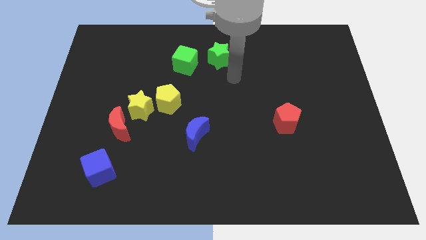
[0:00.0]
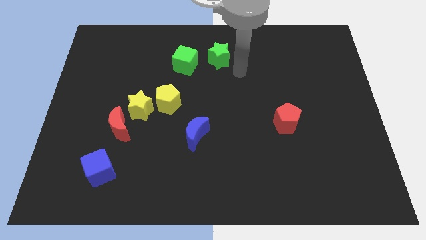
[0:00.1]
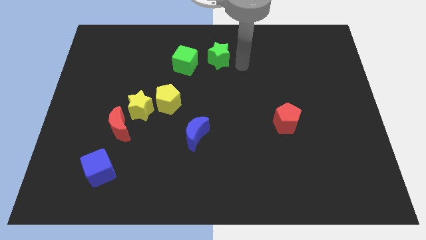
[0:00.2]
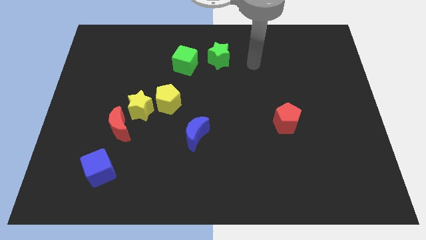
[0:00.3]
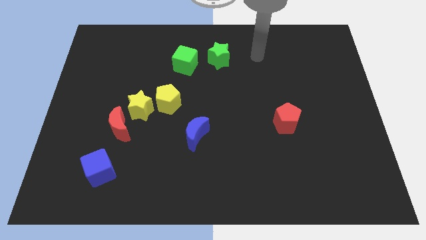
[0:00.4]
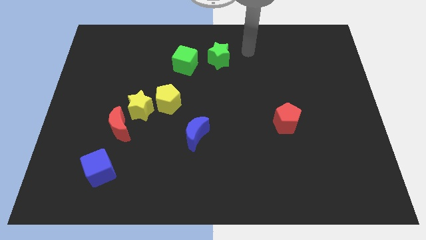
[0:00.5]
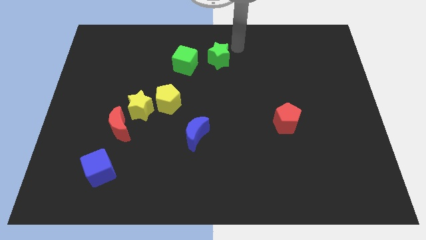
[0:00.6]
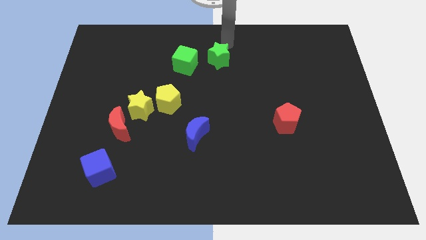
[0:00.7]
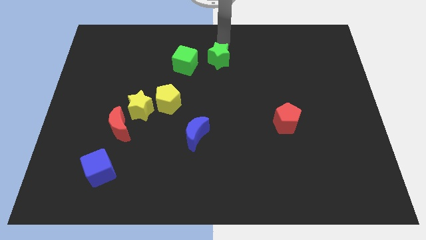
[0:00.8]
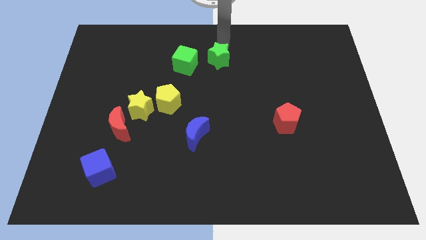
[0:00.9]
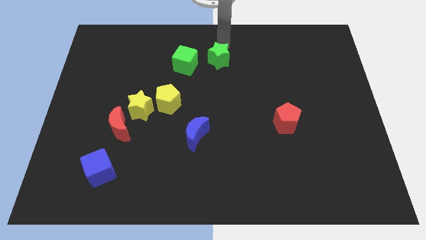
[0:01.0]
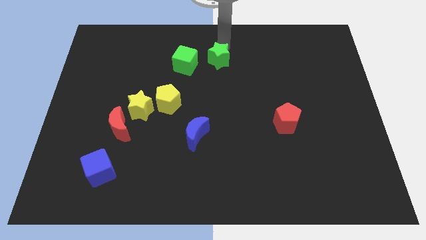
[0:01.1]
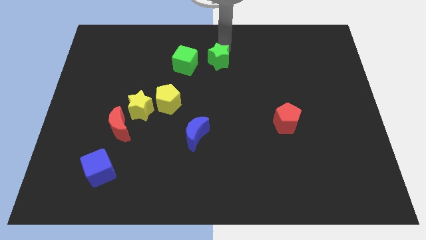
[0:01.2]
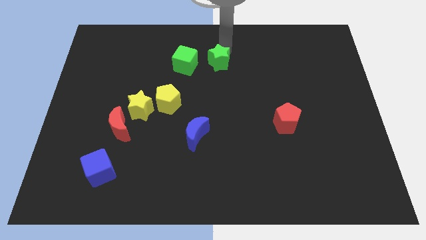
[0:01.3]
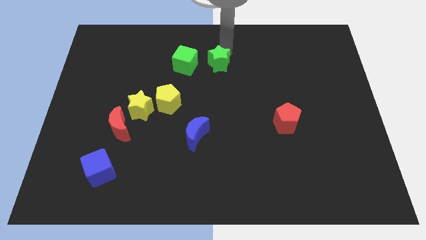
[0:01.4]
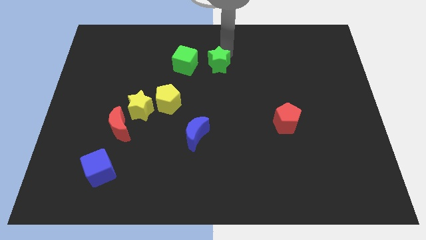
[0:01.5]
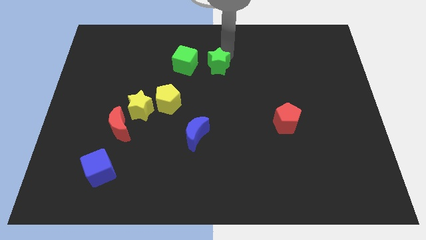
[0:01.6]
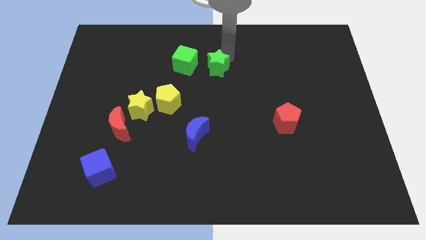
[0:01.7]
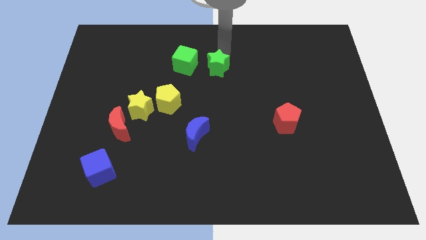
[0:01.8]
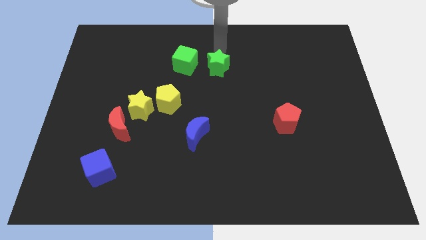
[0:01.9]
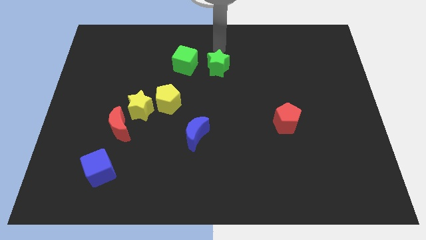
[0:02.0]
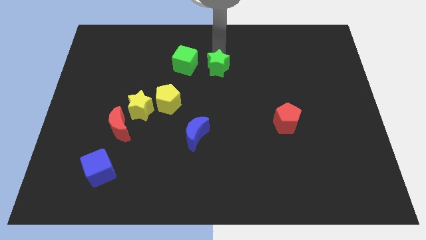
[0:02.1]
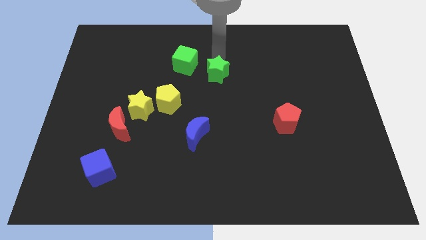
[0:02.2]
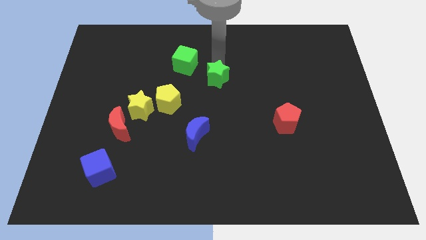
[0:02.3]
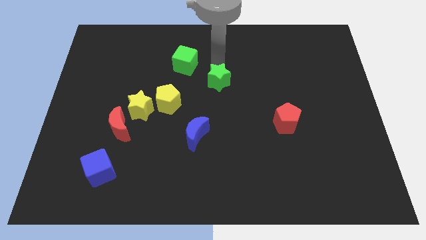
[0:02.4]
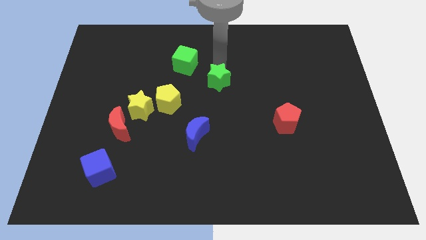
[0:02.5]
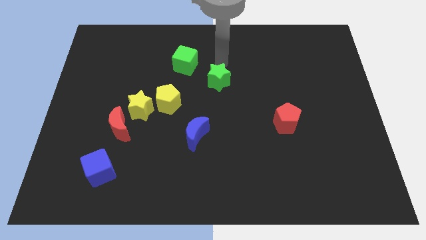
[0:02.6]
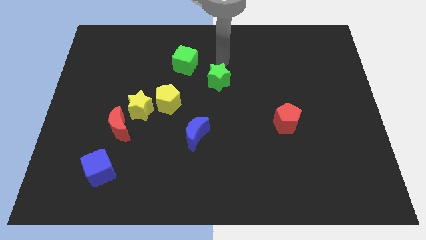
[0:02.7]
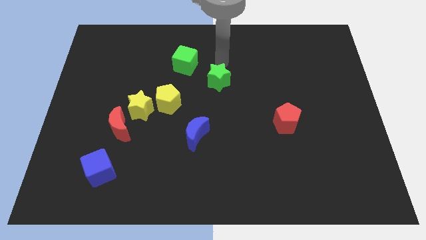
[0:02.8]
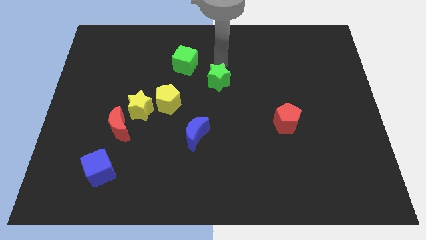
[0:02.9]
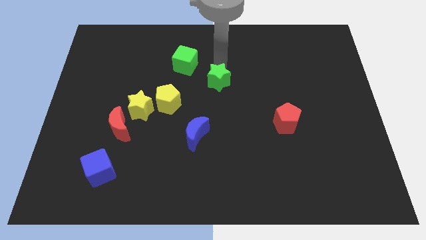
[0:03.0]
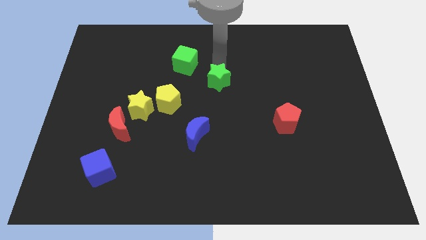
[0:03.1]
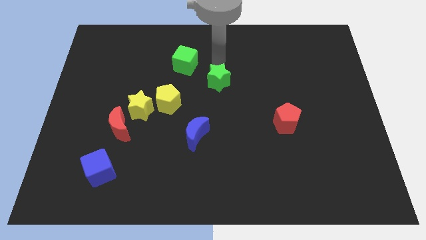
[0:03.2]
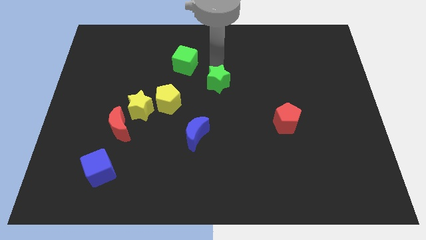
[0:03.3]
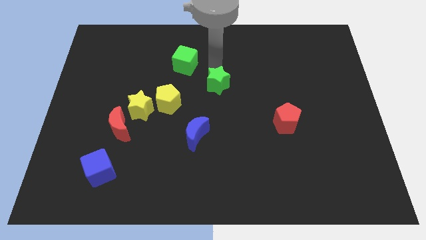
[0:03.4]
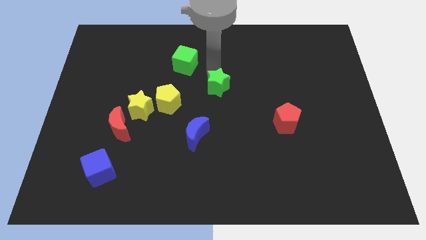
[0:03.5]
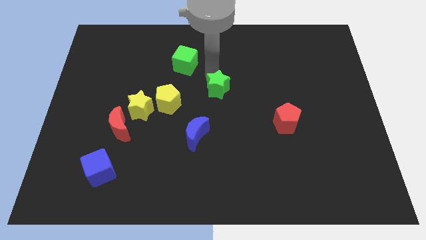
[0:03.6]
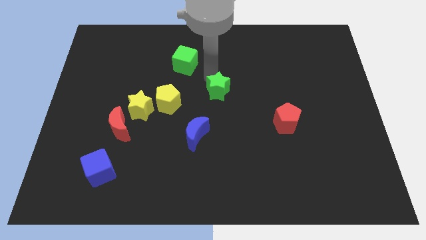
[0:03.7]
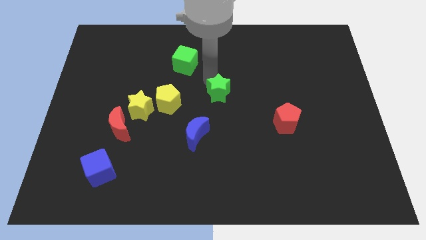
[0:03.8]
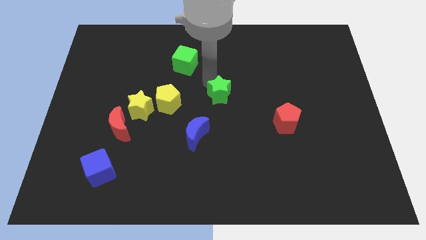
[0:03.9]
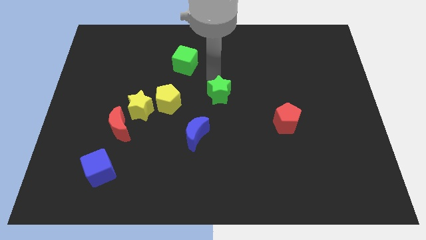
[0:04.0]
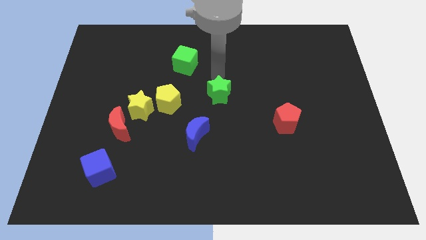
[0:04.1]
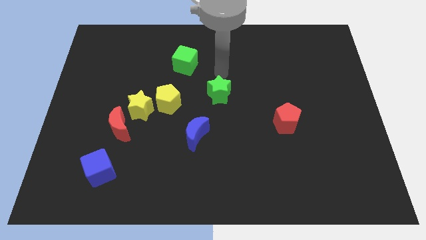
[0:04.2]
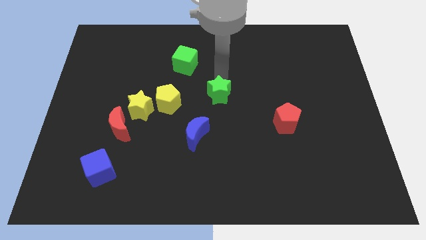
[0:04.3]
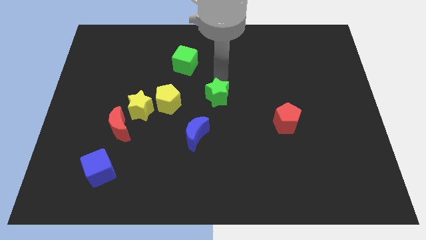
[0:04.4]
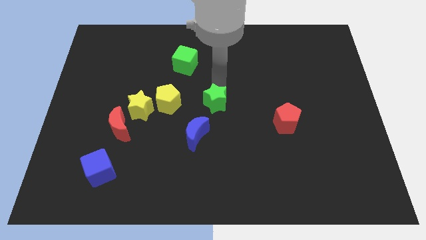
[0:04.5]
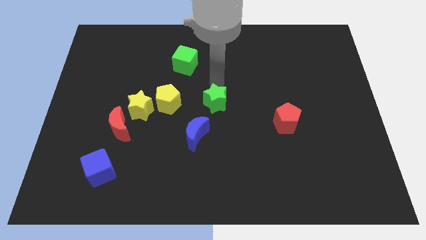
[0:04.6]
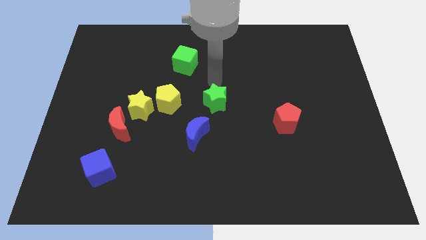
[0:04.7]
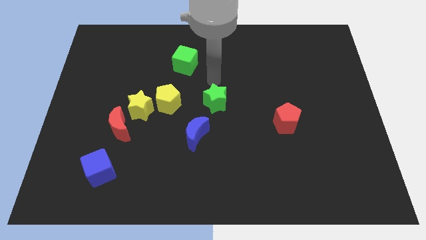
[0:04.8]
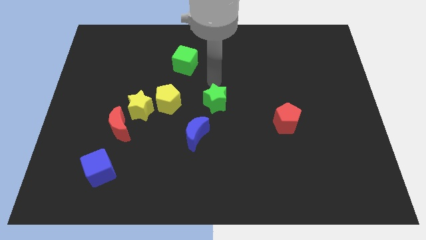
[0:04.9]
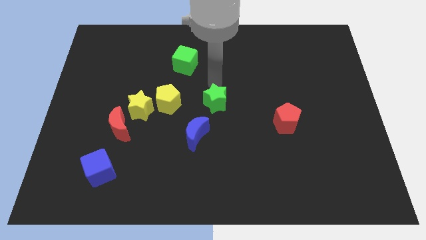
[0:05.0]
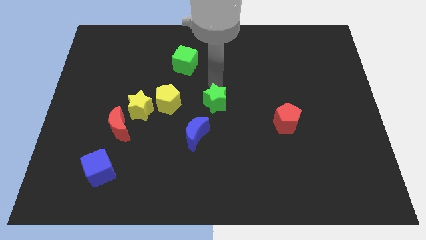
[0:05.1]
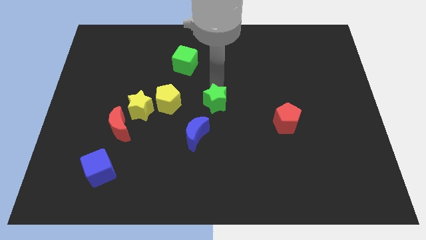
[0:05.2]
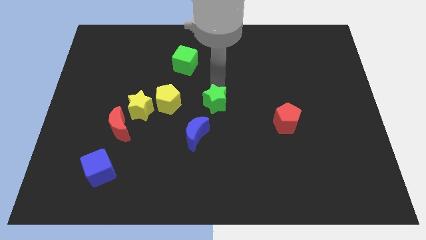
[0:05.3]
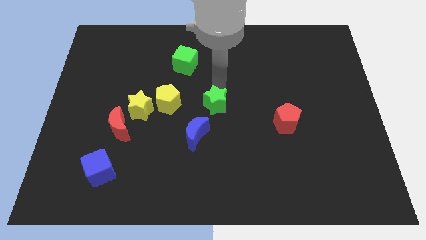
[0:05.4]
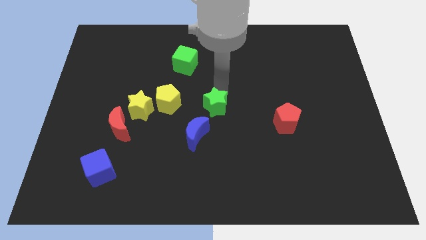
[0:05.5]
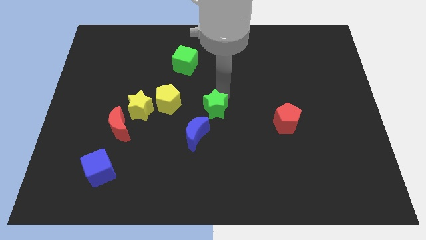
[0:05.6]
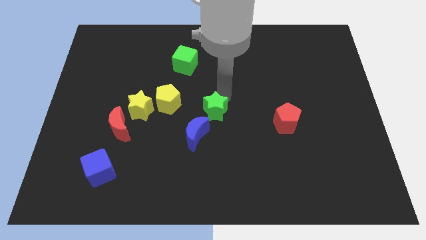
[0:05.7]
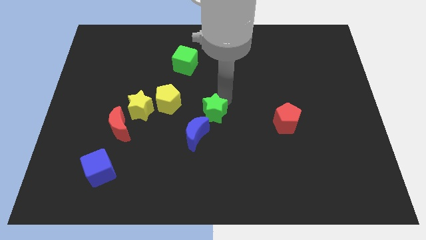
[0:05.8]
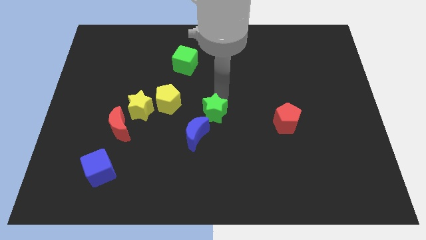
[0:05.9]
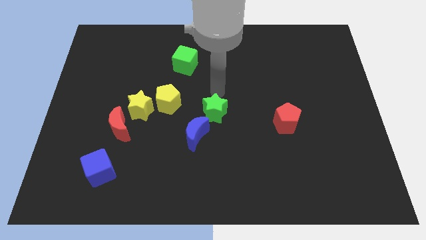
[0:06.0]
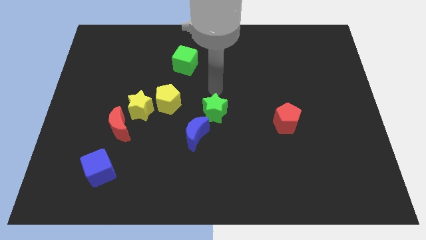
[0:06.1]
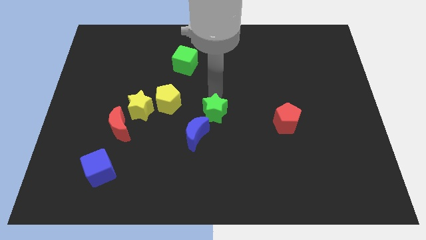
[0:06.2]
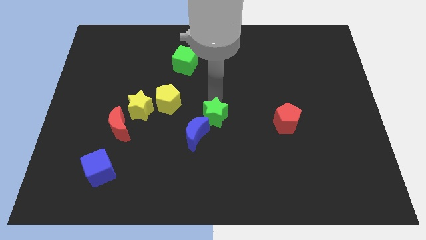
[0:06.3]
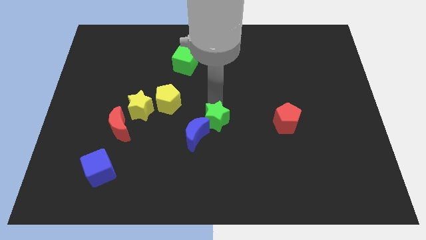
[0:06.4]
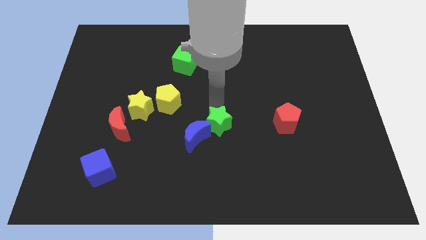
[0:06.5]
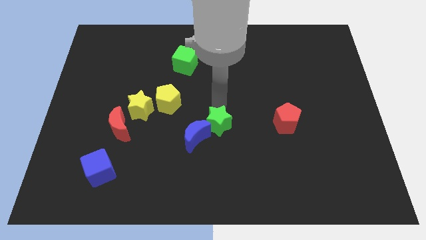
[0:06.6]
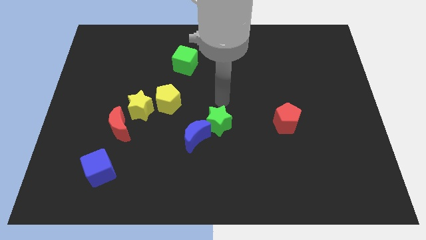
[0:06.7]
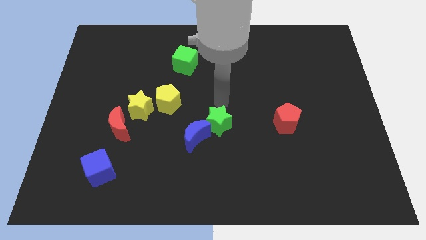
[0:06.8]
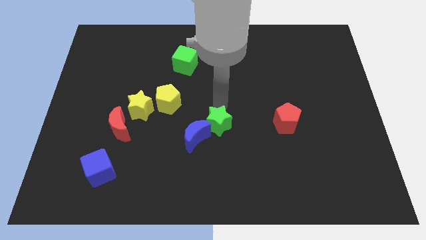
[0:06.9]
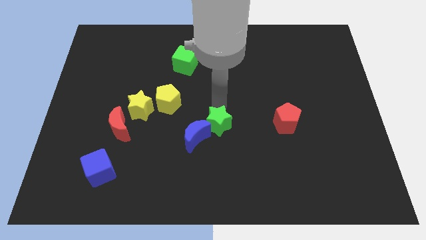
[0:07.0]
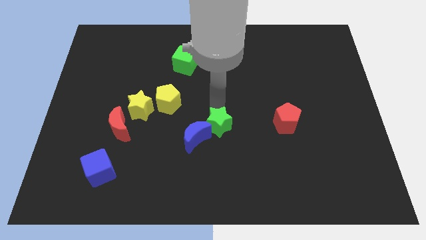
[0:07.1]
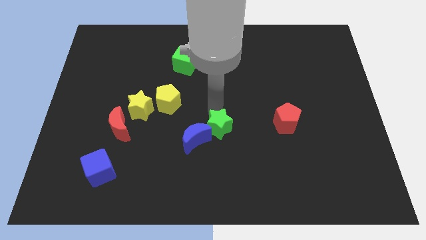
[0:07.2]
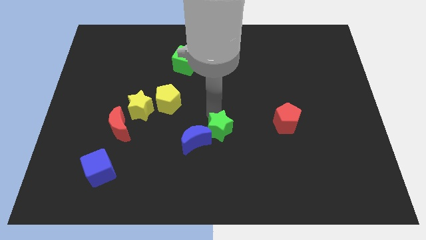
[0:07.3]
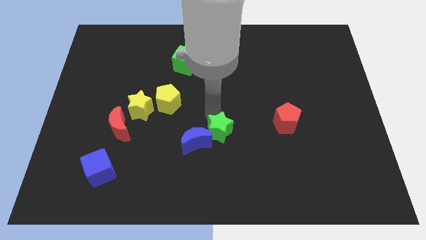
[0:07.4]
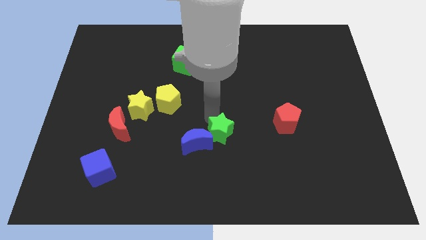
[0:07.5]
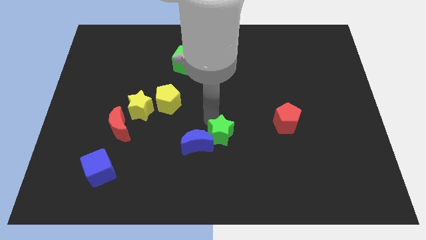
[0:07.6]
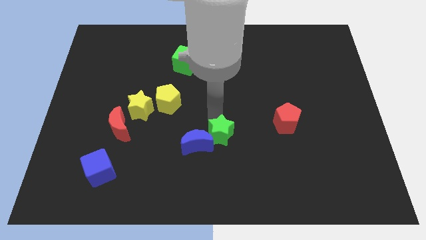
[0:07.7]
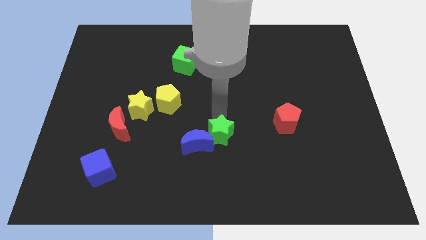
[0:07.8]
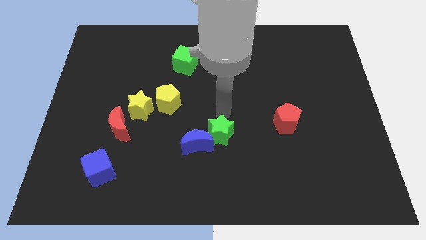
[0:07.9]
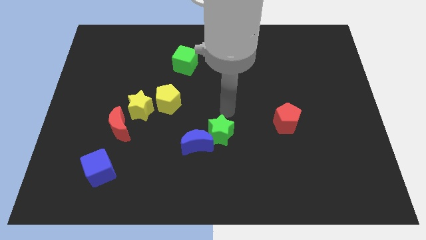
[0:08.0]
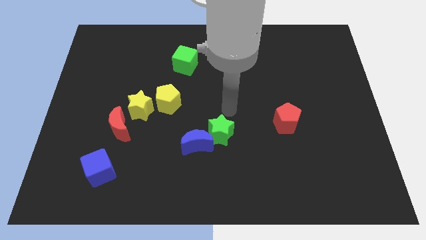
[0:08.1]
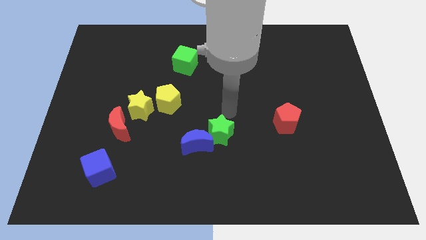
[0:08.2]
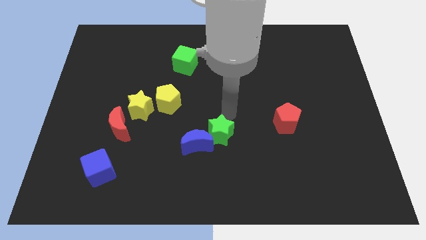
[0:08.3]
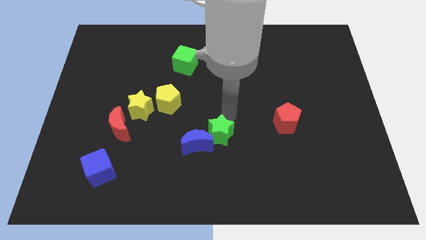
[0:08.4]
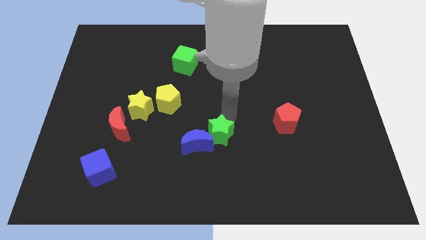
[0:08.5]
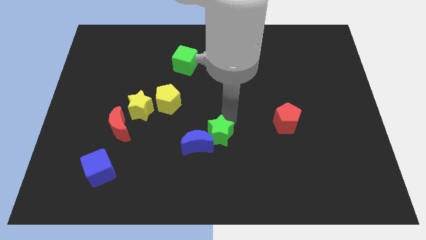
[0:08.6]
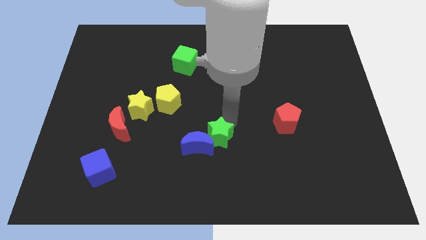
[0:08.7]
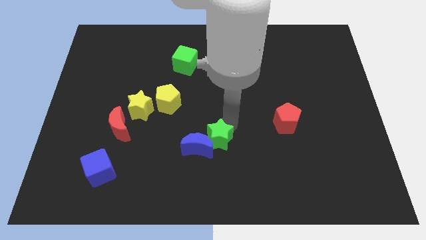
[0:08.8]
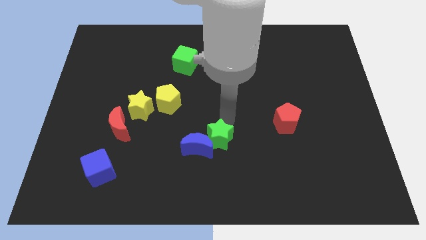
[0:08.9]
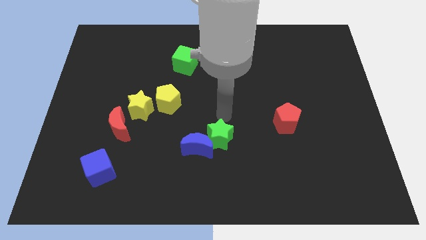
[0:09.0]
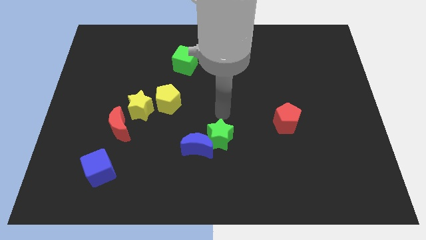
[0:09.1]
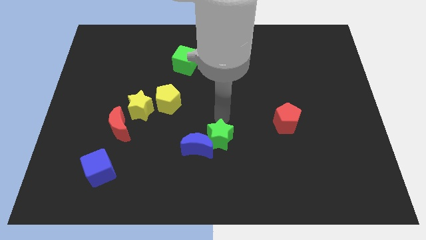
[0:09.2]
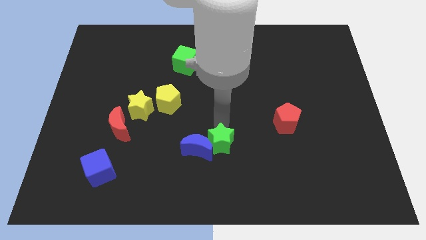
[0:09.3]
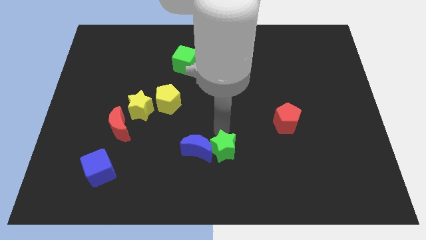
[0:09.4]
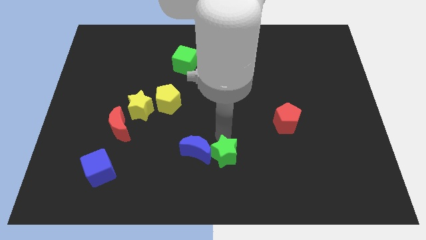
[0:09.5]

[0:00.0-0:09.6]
push the green star to the bottom
